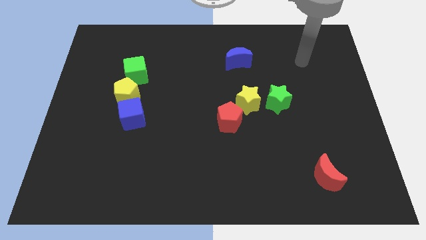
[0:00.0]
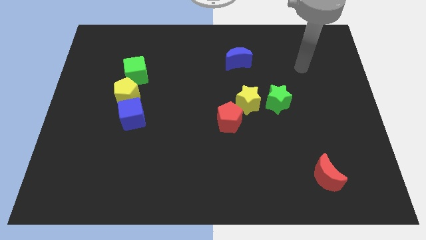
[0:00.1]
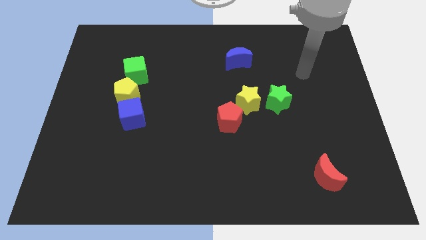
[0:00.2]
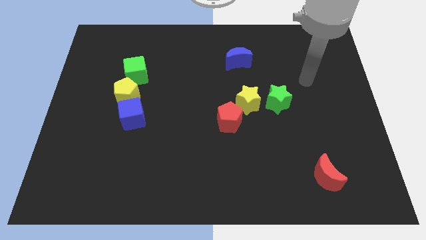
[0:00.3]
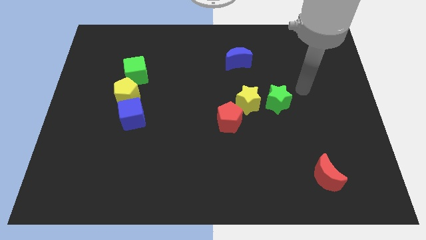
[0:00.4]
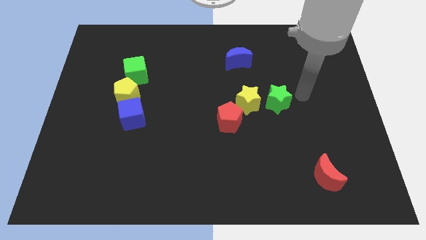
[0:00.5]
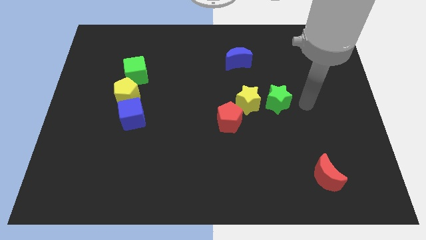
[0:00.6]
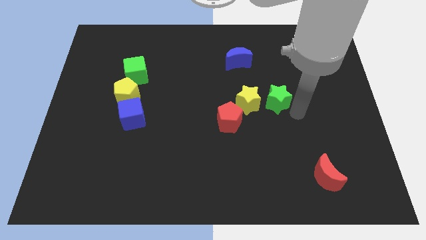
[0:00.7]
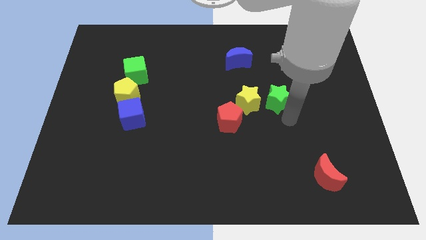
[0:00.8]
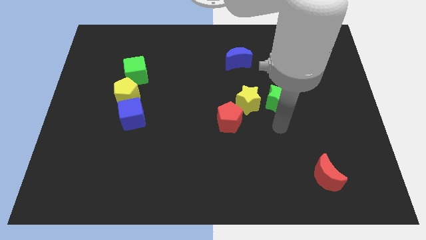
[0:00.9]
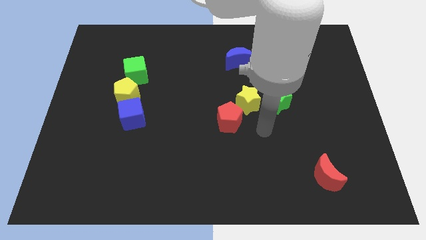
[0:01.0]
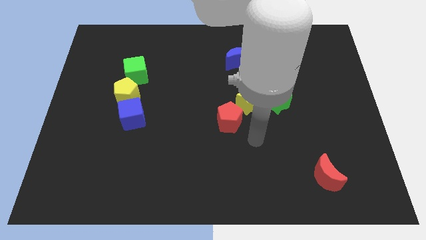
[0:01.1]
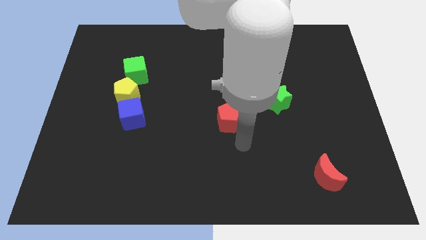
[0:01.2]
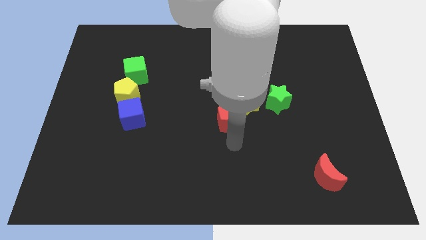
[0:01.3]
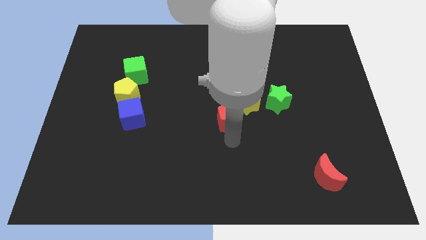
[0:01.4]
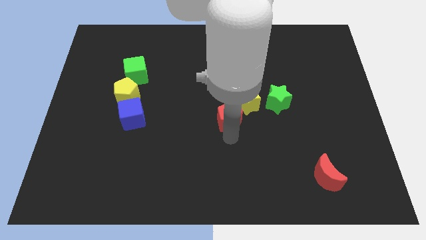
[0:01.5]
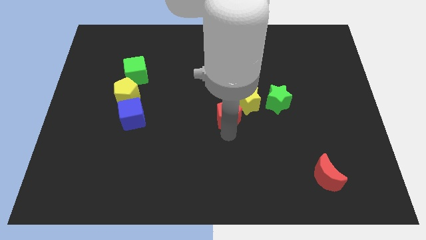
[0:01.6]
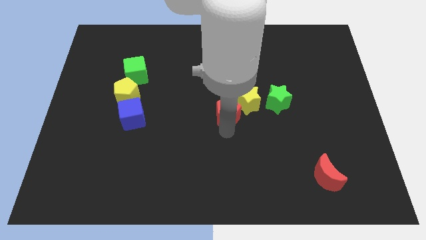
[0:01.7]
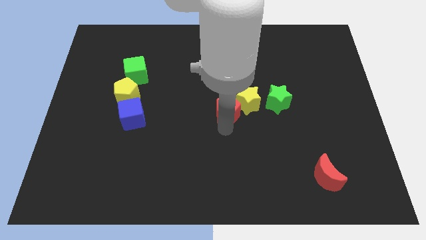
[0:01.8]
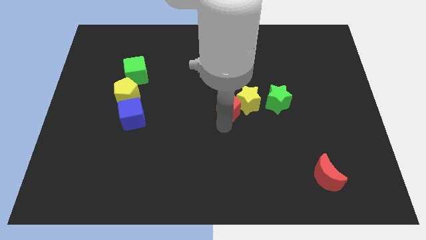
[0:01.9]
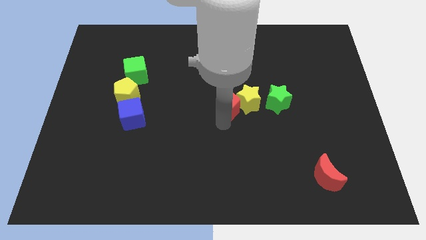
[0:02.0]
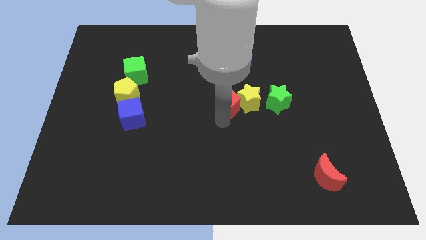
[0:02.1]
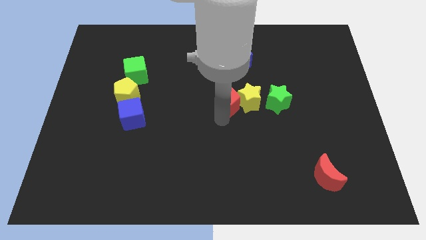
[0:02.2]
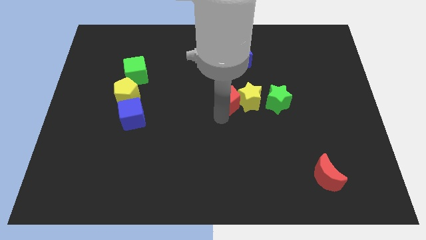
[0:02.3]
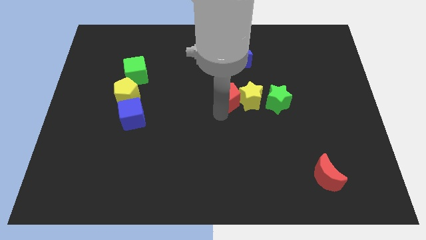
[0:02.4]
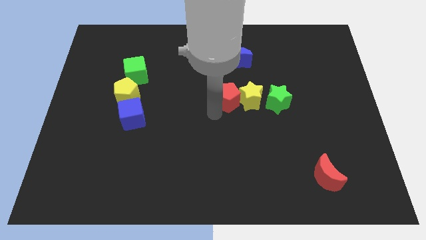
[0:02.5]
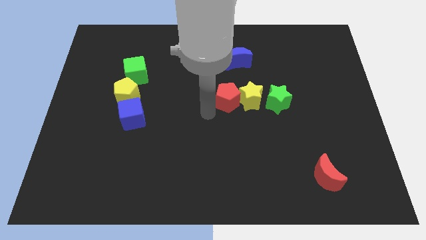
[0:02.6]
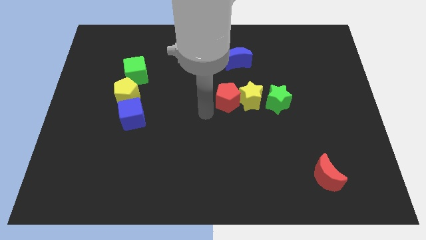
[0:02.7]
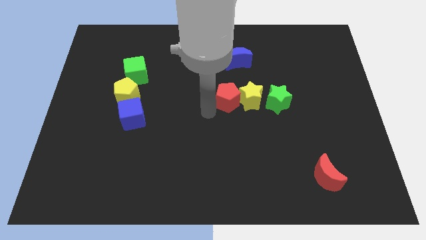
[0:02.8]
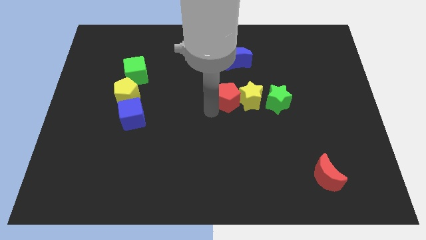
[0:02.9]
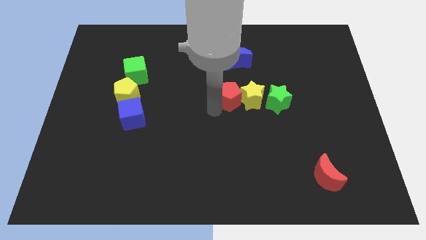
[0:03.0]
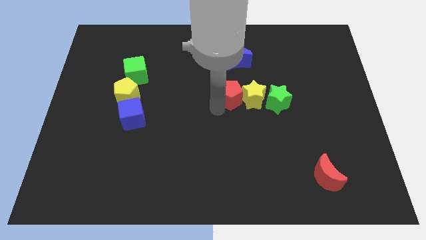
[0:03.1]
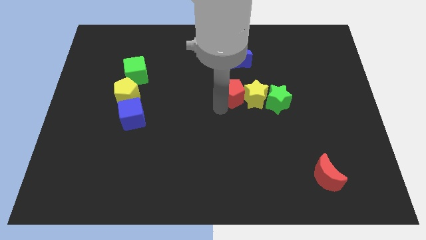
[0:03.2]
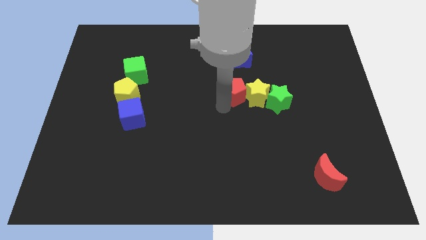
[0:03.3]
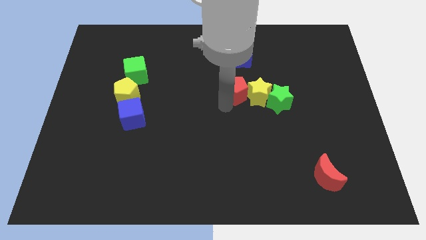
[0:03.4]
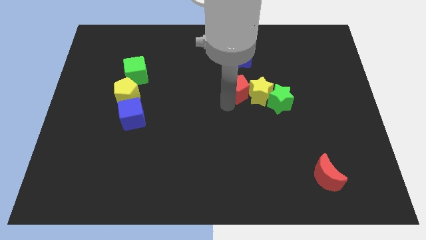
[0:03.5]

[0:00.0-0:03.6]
move the red pentagon a bit diagonally up and to the right

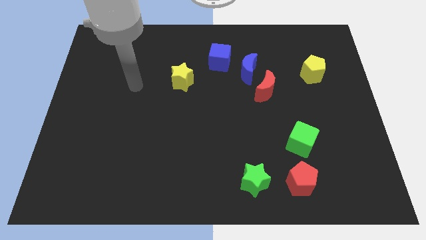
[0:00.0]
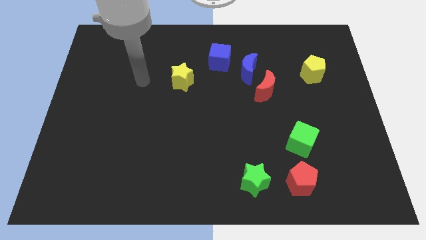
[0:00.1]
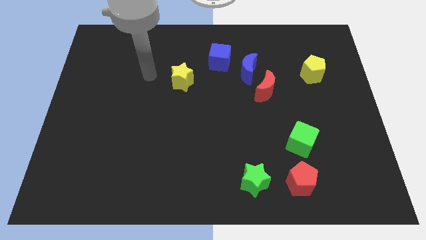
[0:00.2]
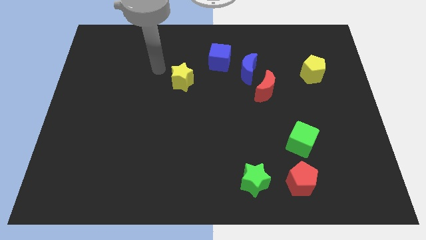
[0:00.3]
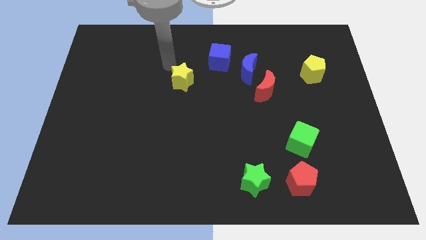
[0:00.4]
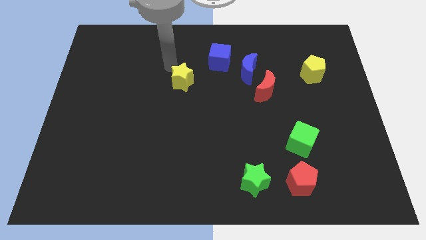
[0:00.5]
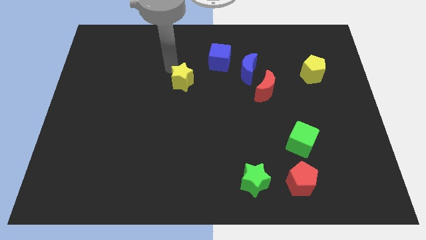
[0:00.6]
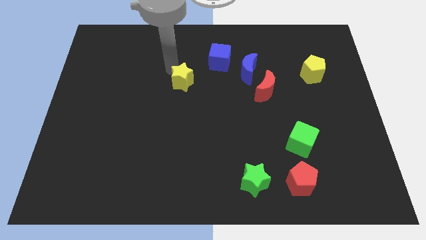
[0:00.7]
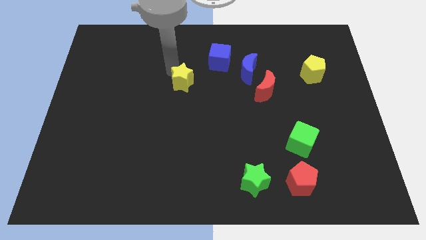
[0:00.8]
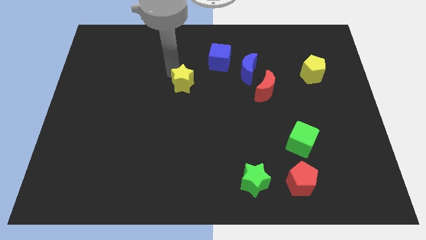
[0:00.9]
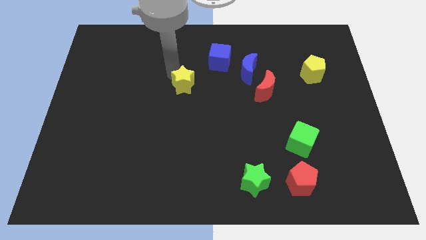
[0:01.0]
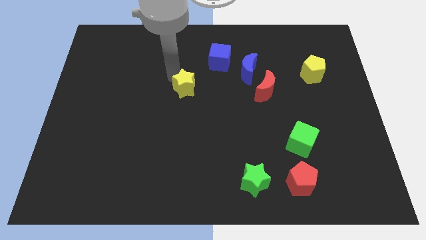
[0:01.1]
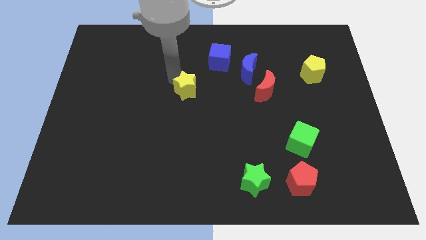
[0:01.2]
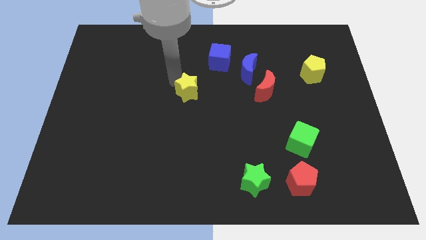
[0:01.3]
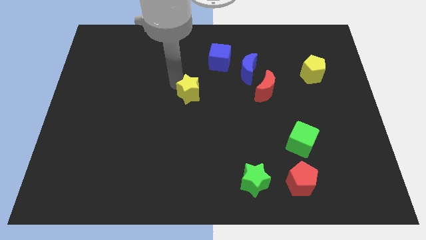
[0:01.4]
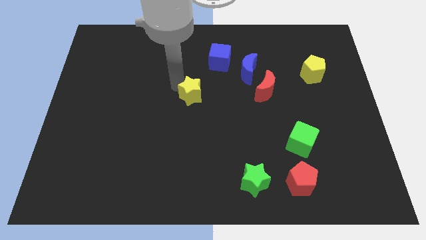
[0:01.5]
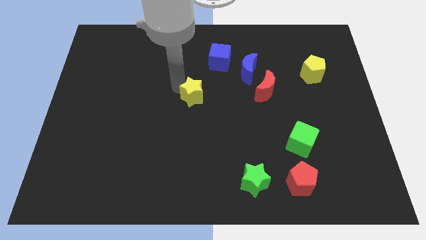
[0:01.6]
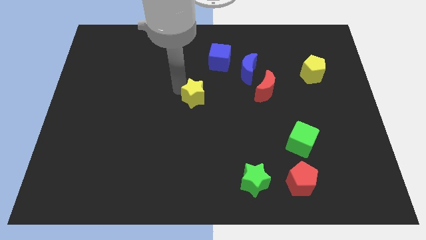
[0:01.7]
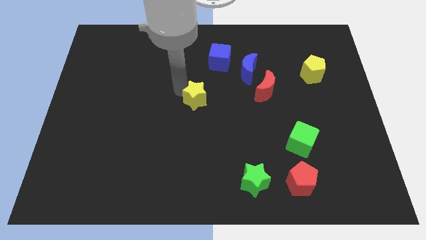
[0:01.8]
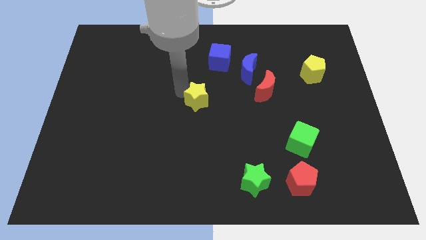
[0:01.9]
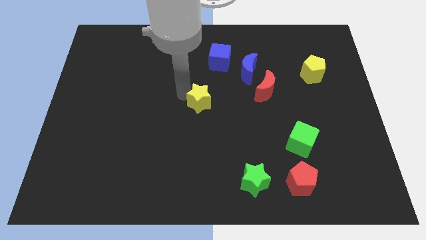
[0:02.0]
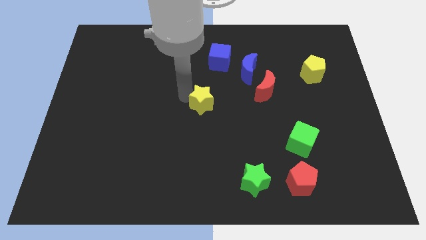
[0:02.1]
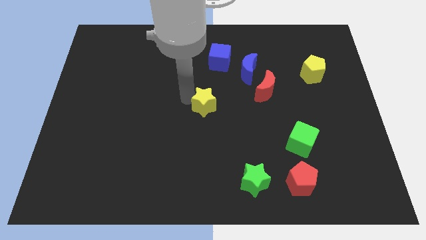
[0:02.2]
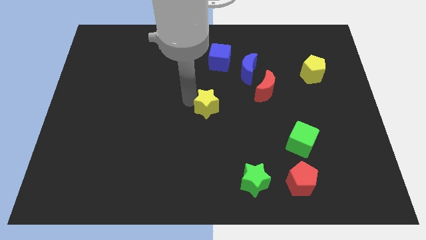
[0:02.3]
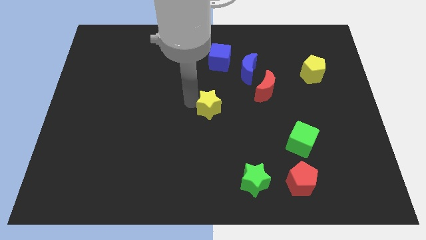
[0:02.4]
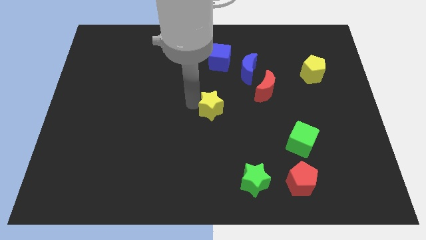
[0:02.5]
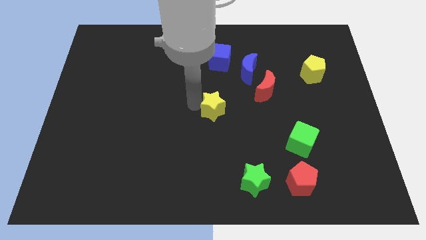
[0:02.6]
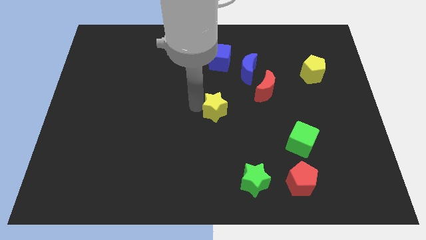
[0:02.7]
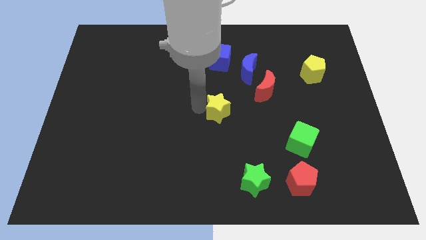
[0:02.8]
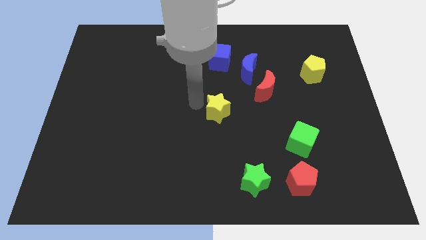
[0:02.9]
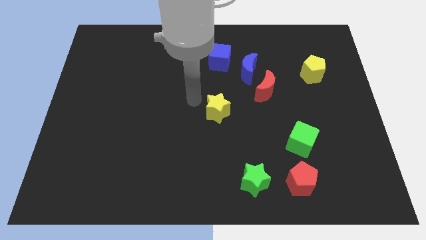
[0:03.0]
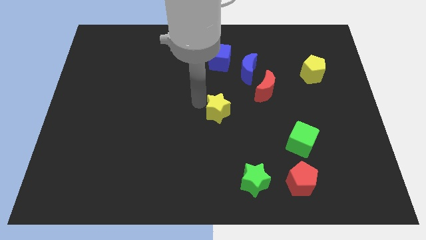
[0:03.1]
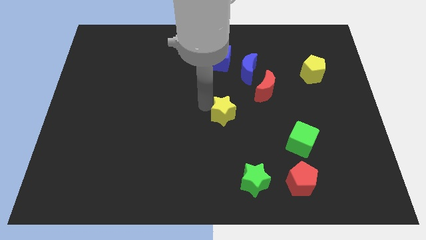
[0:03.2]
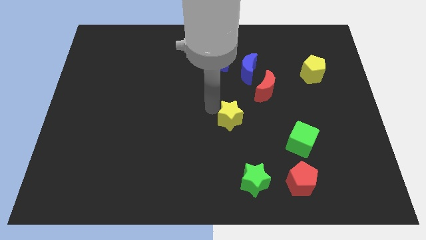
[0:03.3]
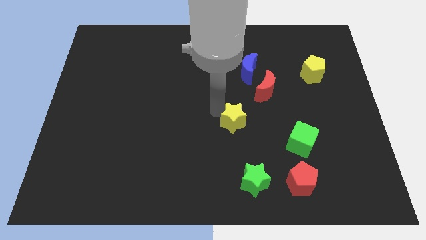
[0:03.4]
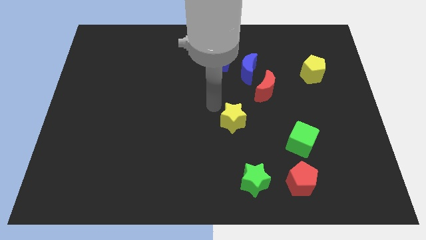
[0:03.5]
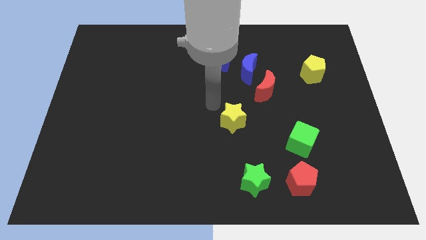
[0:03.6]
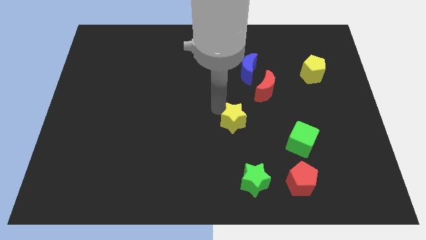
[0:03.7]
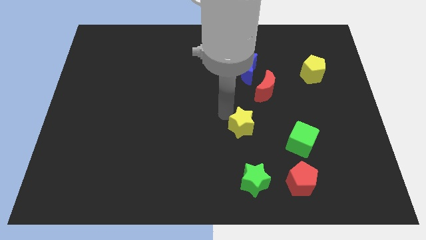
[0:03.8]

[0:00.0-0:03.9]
push the yellow star diagonally down and right

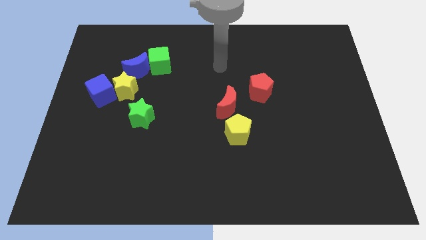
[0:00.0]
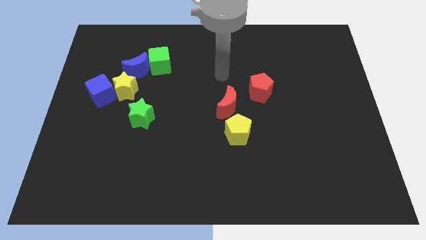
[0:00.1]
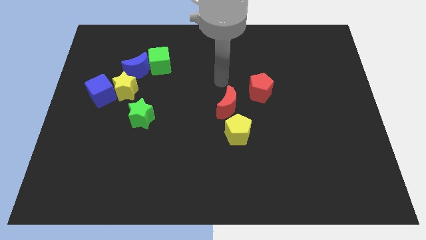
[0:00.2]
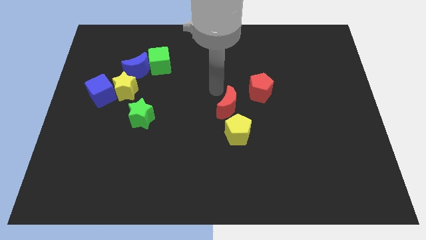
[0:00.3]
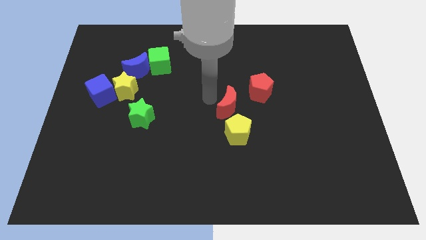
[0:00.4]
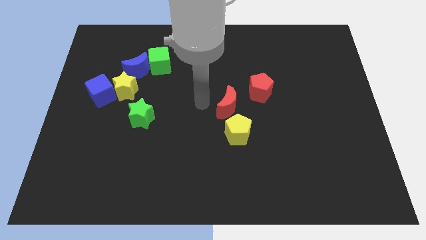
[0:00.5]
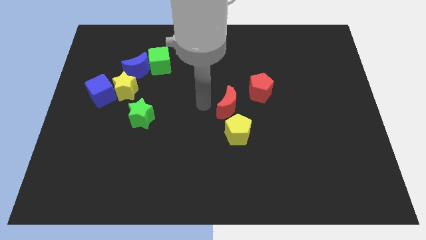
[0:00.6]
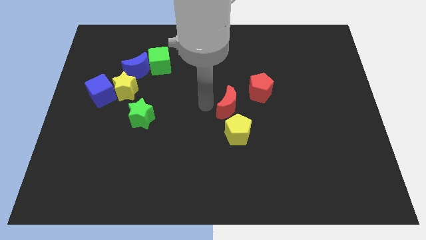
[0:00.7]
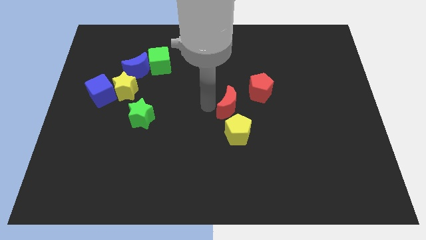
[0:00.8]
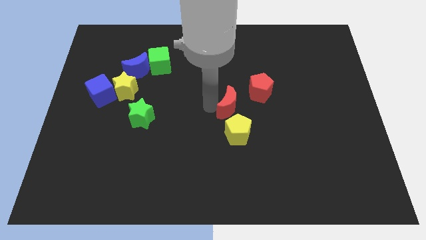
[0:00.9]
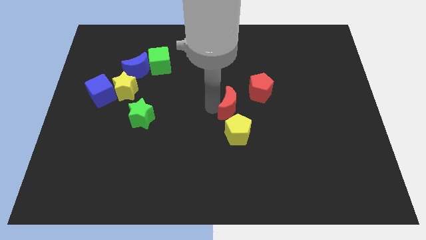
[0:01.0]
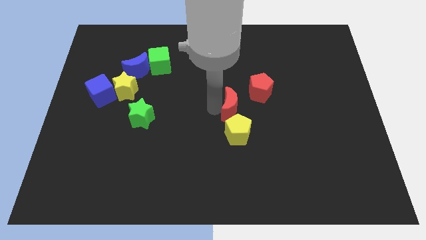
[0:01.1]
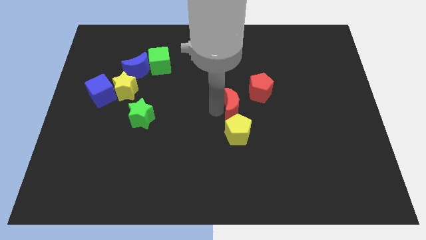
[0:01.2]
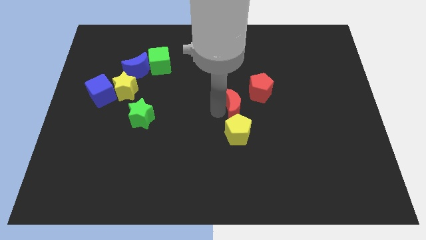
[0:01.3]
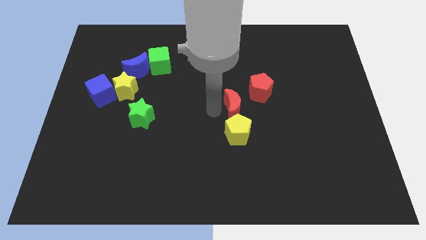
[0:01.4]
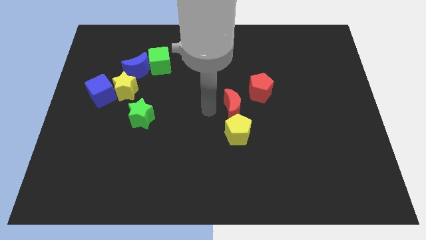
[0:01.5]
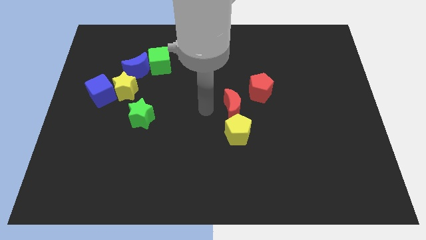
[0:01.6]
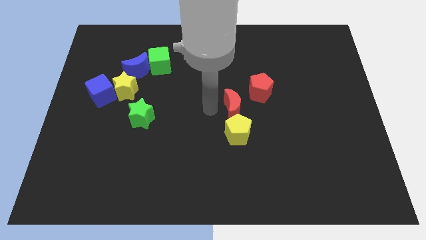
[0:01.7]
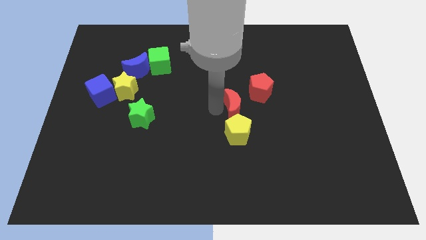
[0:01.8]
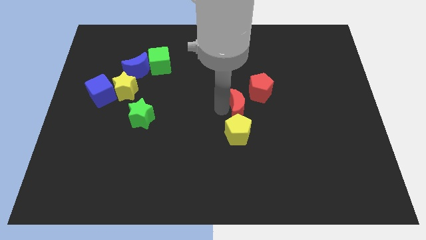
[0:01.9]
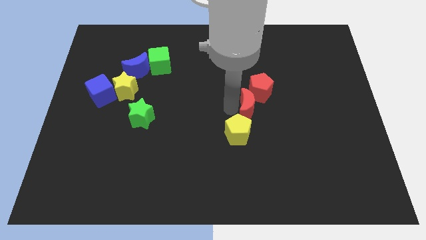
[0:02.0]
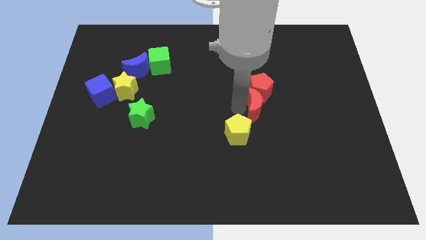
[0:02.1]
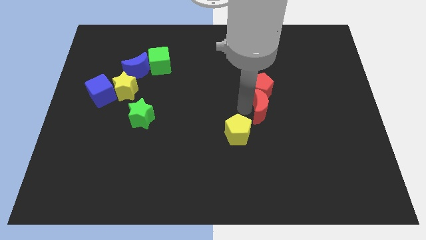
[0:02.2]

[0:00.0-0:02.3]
slightly move the red moon right
